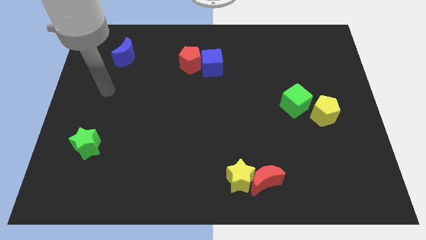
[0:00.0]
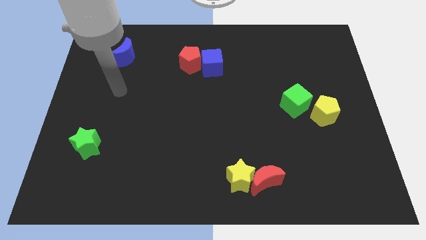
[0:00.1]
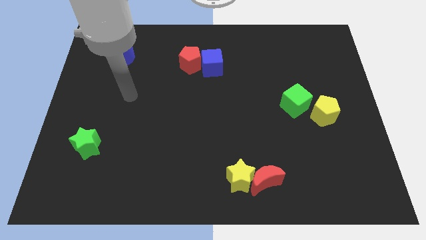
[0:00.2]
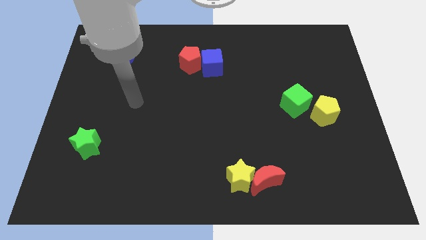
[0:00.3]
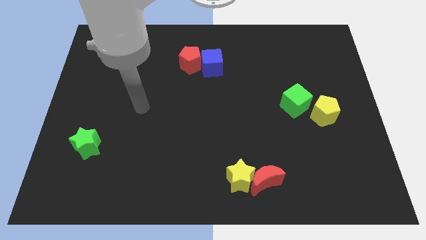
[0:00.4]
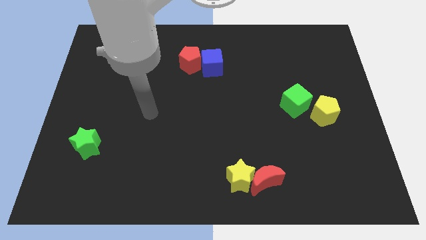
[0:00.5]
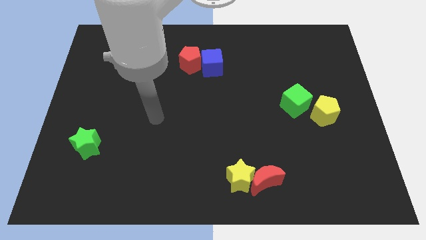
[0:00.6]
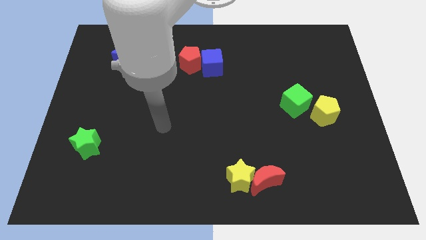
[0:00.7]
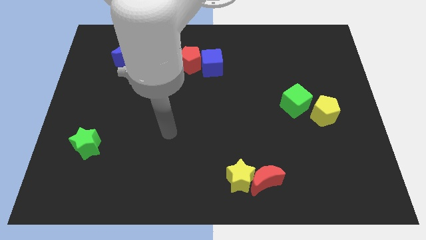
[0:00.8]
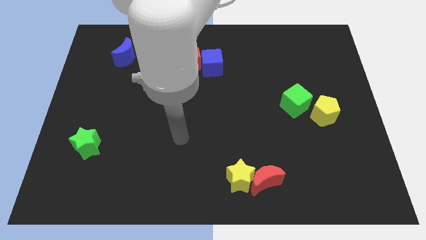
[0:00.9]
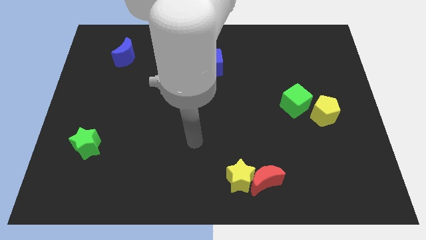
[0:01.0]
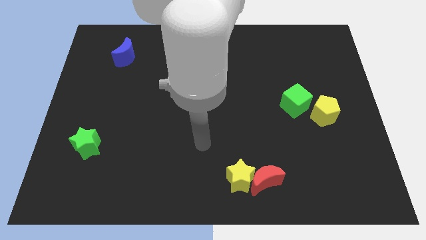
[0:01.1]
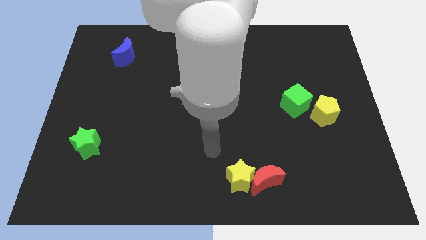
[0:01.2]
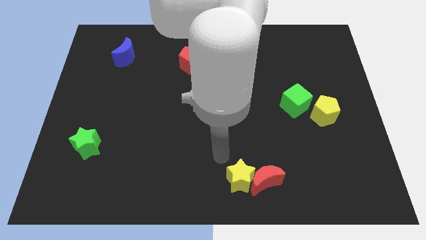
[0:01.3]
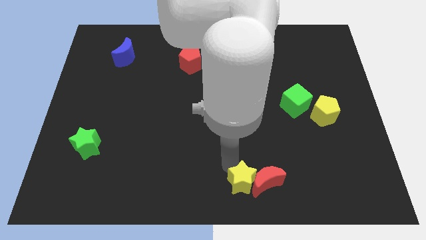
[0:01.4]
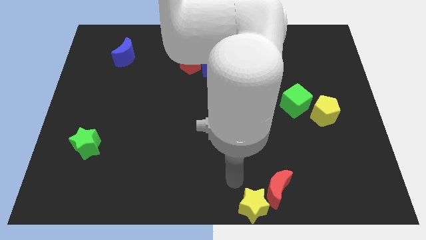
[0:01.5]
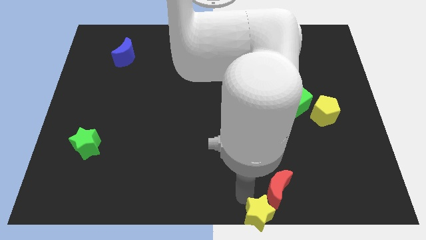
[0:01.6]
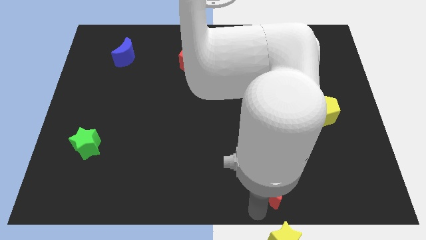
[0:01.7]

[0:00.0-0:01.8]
pull the red moon apart from the yellow star

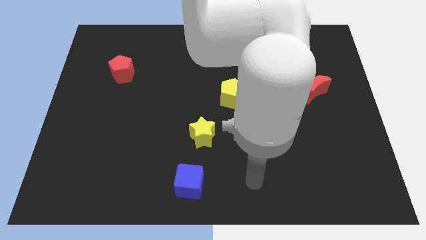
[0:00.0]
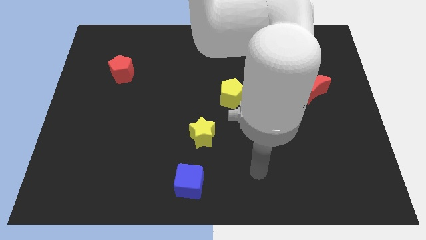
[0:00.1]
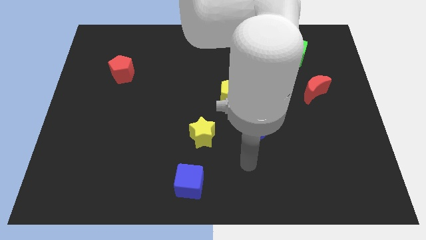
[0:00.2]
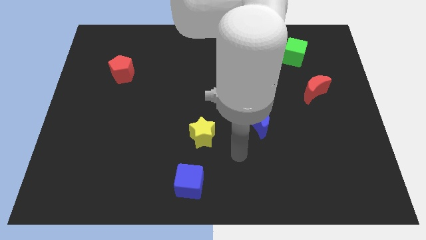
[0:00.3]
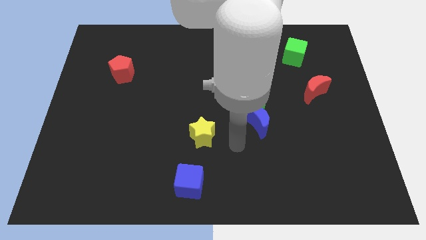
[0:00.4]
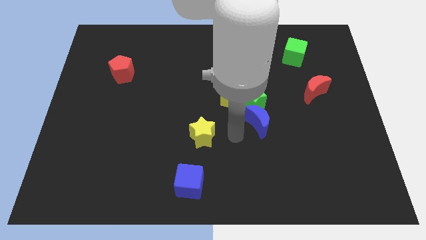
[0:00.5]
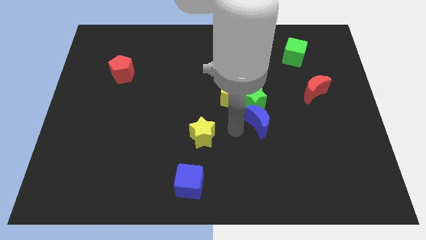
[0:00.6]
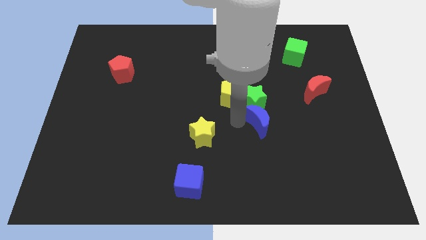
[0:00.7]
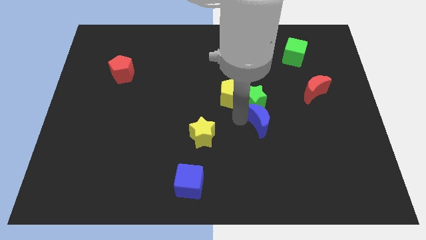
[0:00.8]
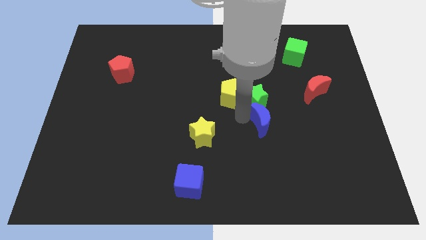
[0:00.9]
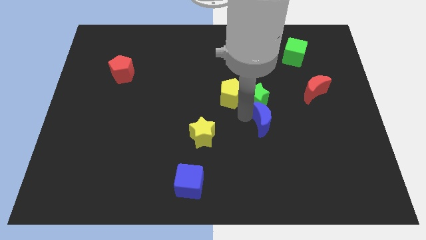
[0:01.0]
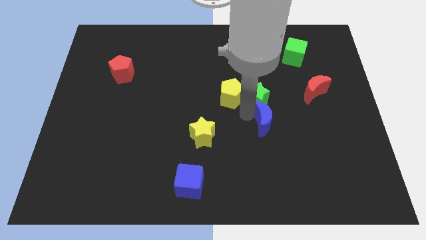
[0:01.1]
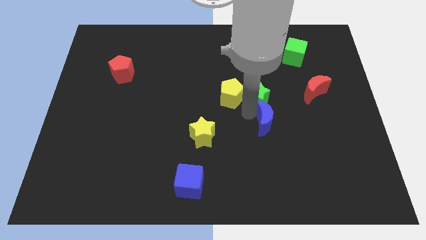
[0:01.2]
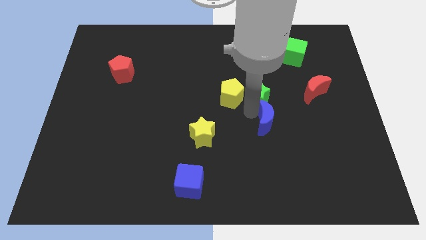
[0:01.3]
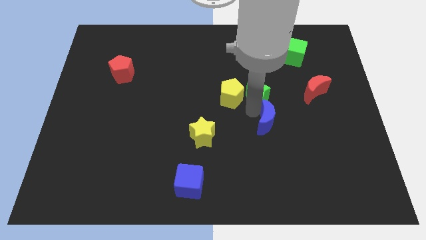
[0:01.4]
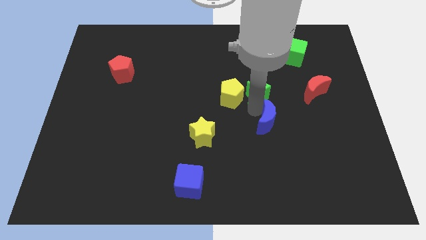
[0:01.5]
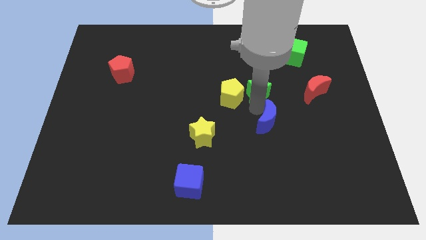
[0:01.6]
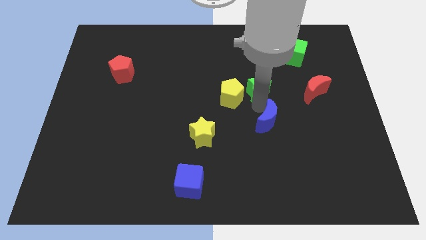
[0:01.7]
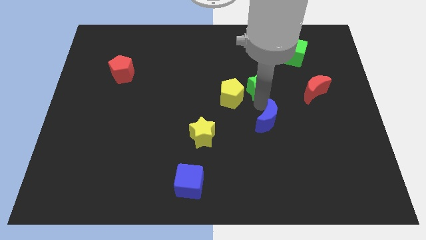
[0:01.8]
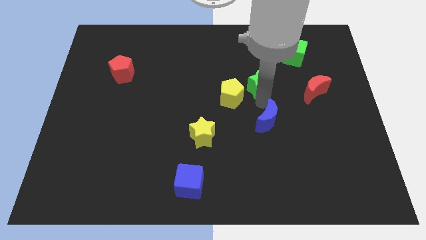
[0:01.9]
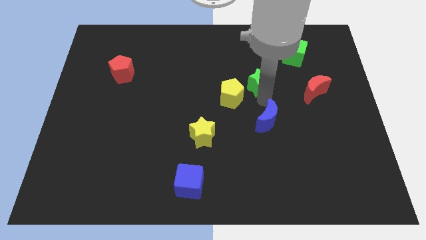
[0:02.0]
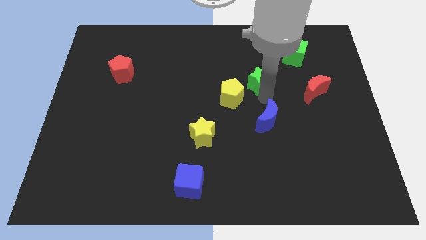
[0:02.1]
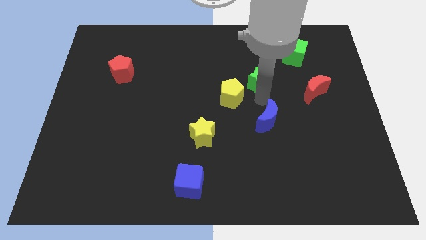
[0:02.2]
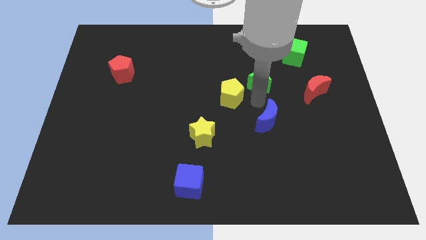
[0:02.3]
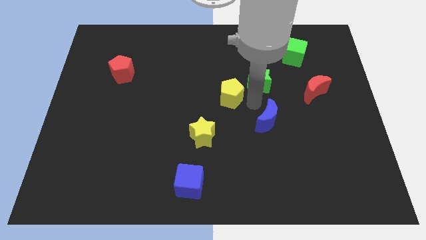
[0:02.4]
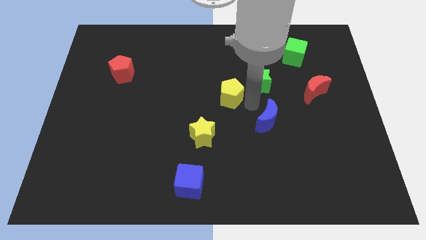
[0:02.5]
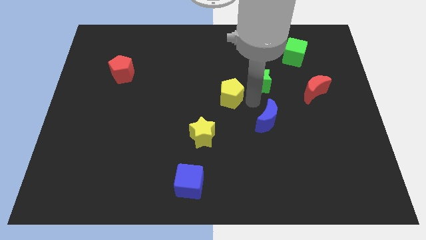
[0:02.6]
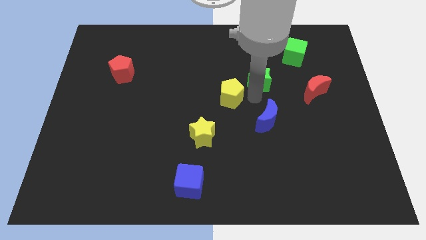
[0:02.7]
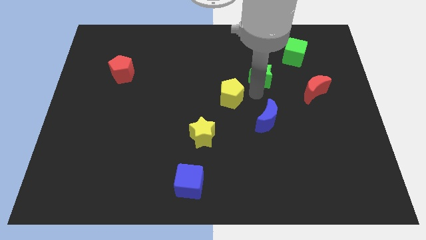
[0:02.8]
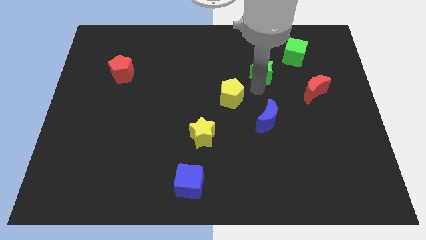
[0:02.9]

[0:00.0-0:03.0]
separate the green star from the yellow pentagon and blue moon

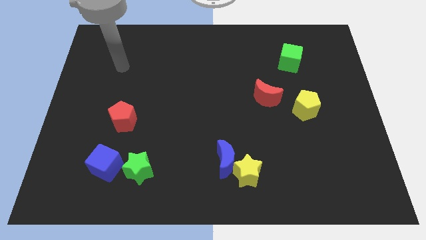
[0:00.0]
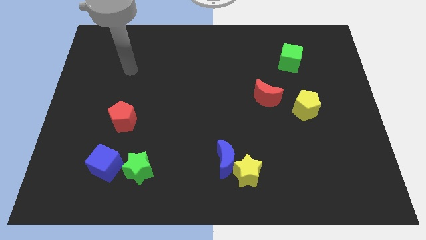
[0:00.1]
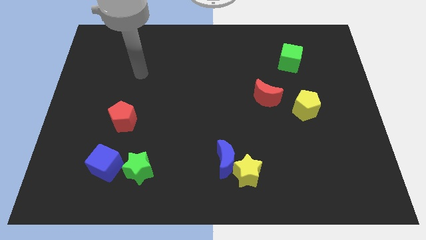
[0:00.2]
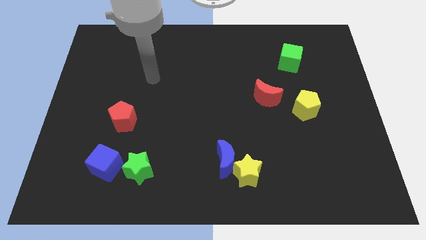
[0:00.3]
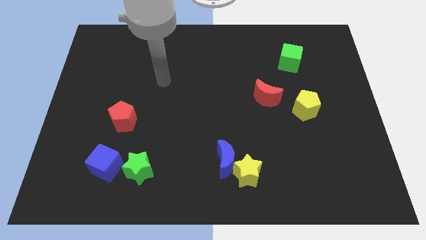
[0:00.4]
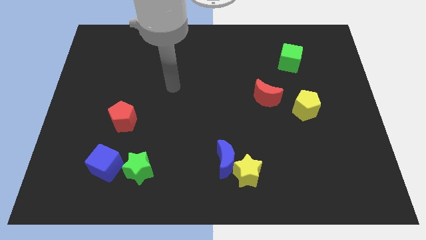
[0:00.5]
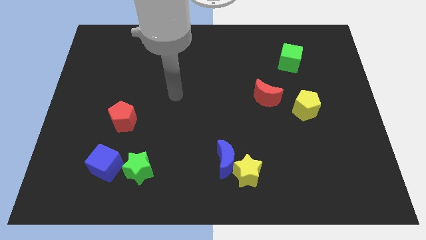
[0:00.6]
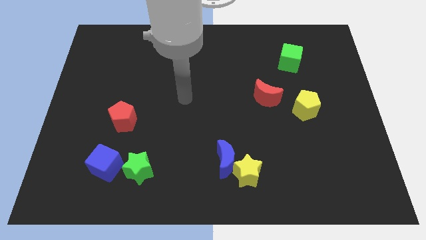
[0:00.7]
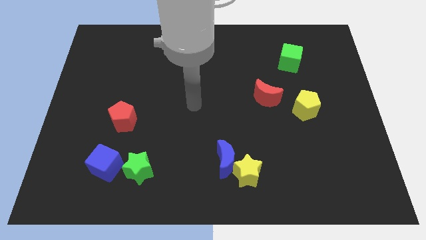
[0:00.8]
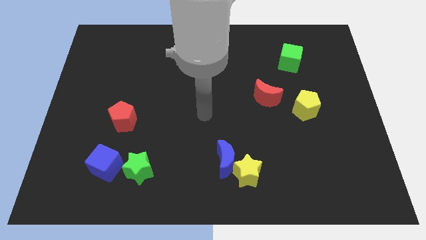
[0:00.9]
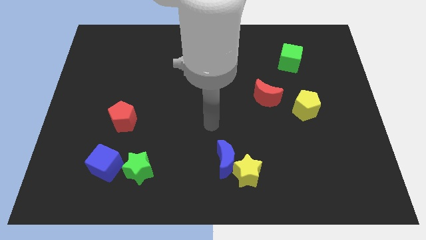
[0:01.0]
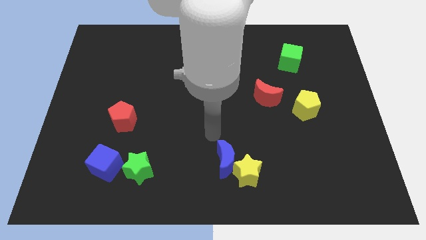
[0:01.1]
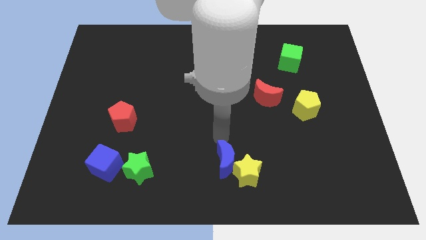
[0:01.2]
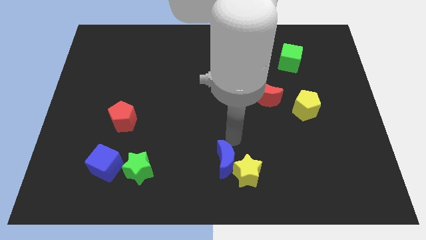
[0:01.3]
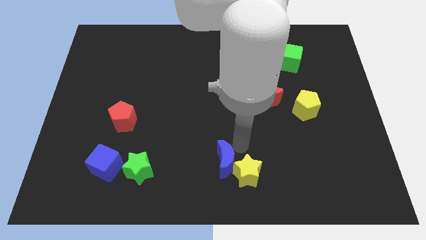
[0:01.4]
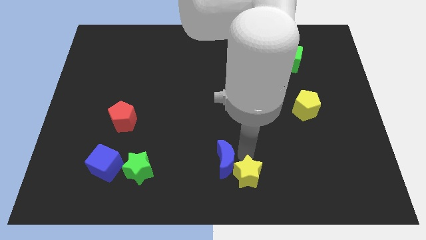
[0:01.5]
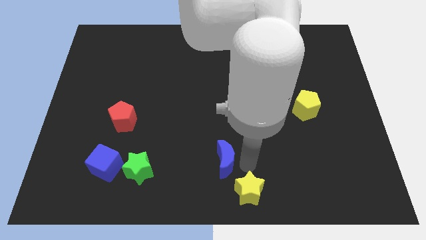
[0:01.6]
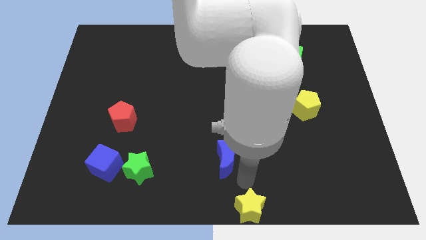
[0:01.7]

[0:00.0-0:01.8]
separate the blue moon from the yellow star

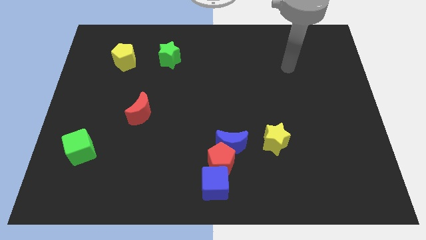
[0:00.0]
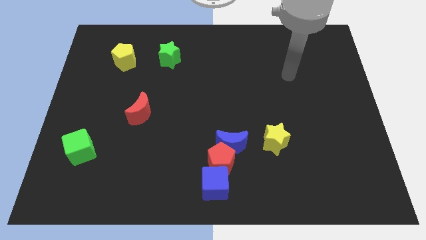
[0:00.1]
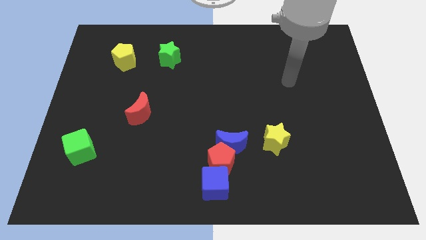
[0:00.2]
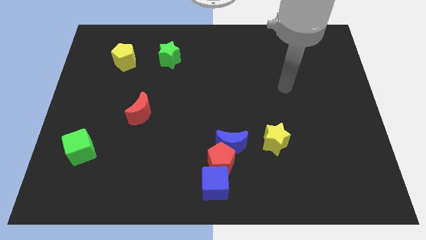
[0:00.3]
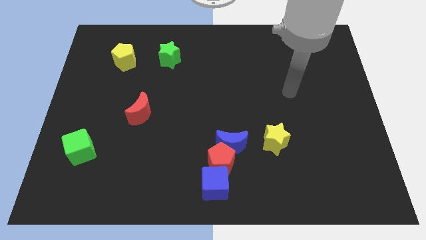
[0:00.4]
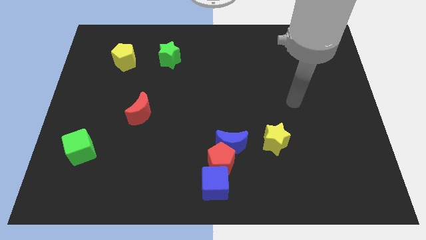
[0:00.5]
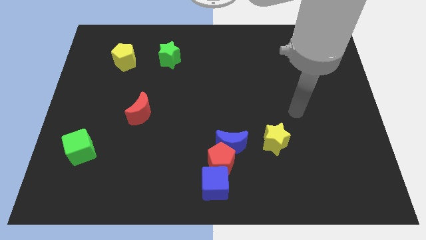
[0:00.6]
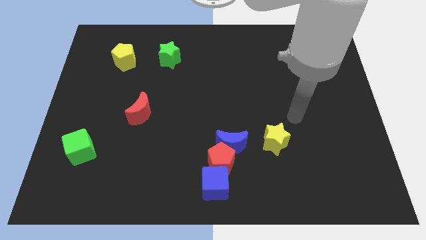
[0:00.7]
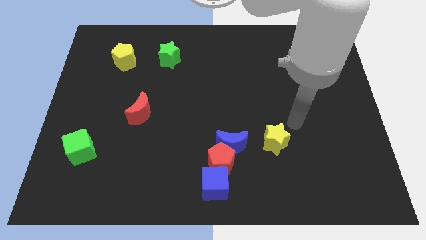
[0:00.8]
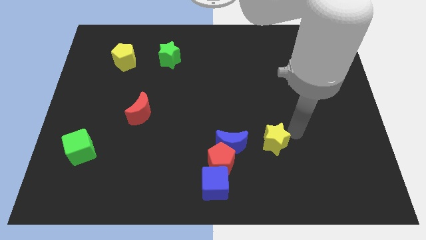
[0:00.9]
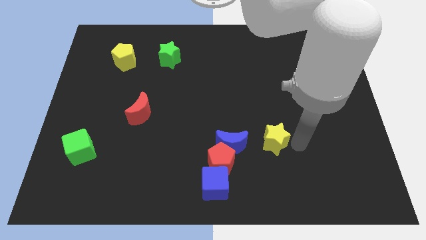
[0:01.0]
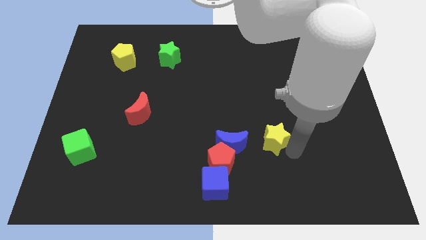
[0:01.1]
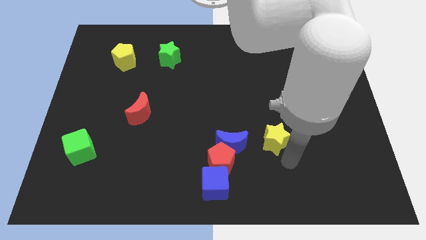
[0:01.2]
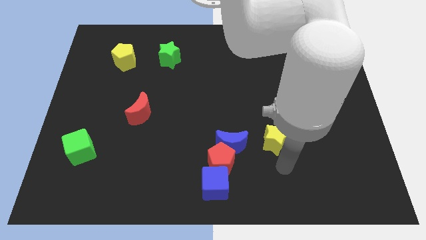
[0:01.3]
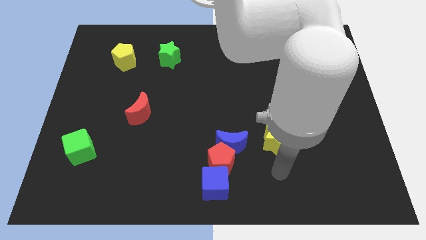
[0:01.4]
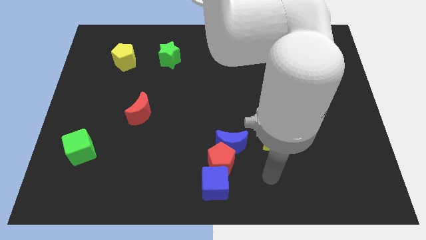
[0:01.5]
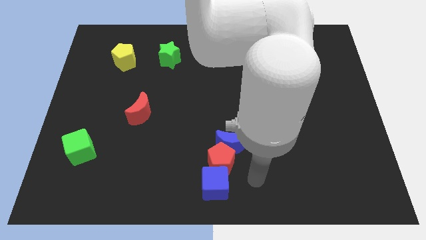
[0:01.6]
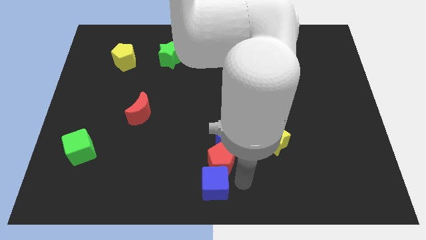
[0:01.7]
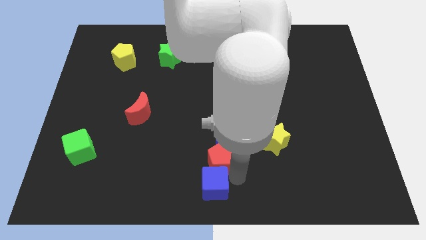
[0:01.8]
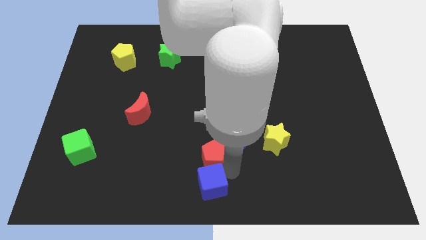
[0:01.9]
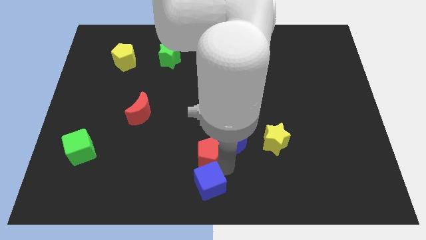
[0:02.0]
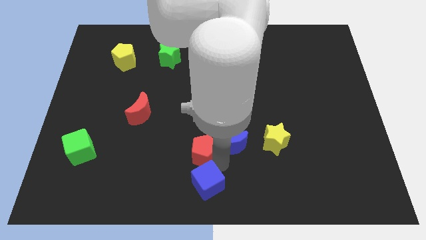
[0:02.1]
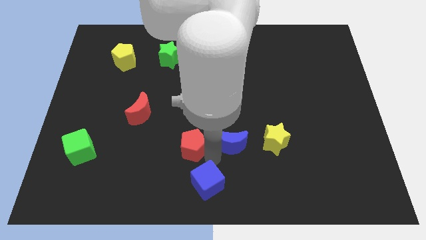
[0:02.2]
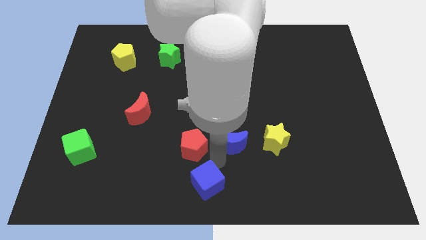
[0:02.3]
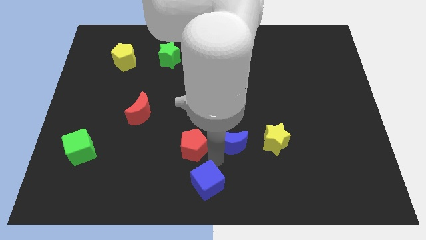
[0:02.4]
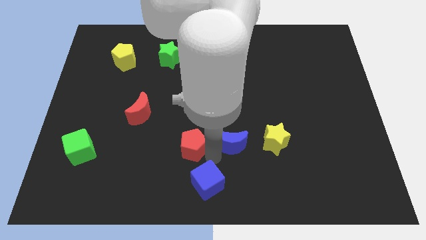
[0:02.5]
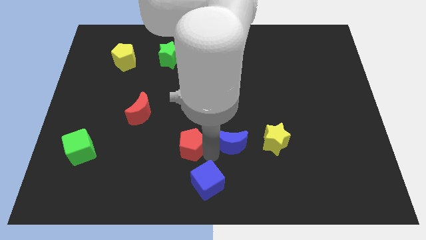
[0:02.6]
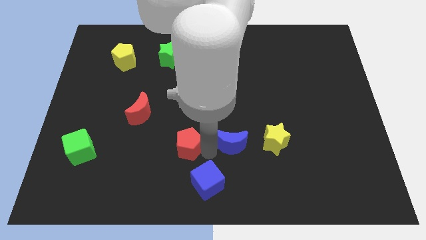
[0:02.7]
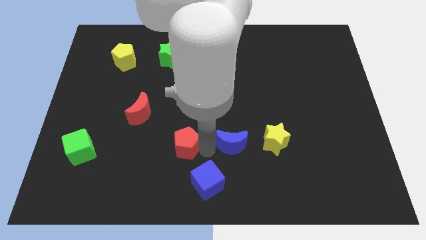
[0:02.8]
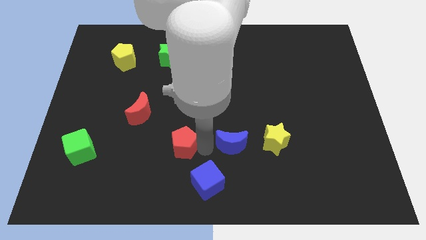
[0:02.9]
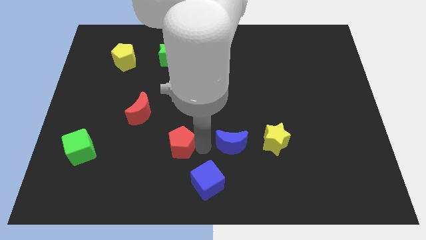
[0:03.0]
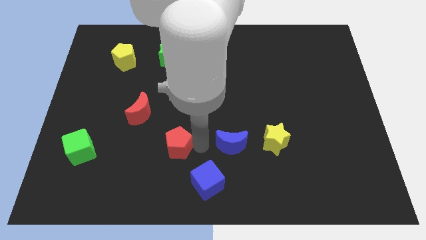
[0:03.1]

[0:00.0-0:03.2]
move the red pentagon away from the blue moon and blue cube
